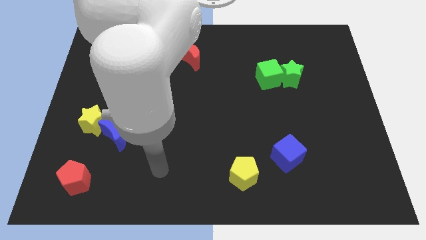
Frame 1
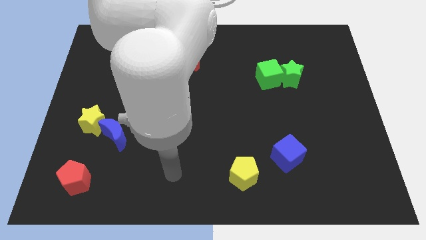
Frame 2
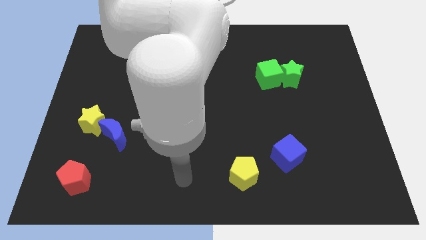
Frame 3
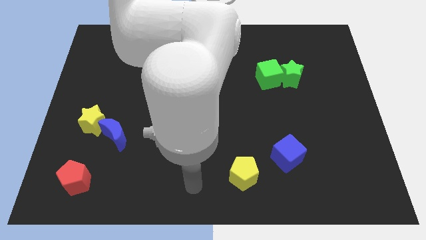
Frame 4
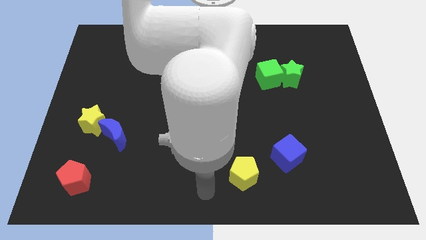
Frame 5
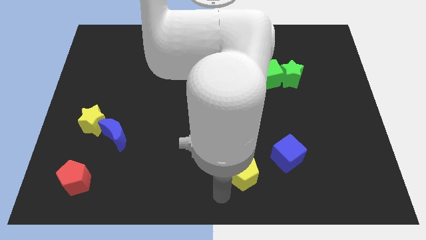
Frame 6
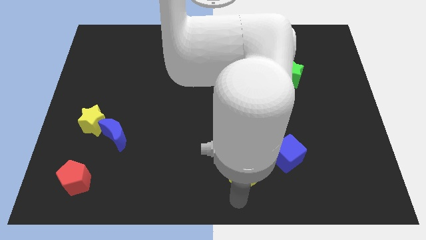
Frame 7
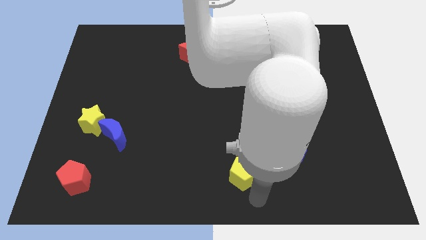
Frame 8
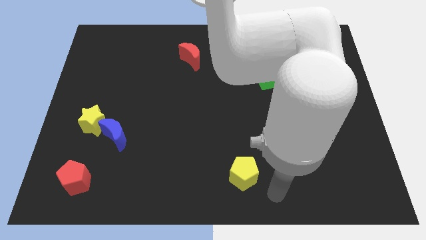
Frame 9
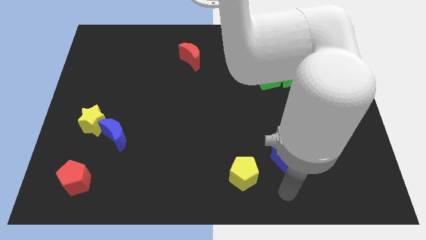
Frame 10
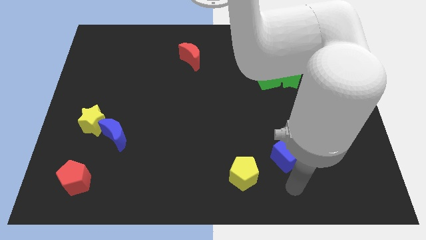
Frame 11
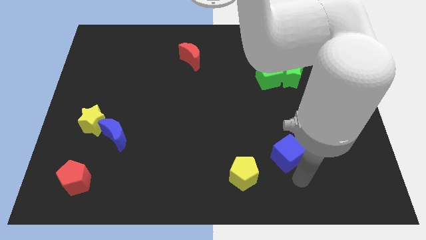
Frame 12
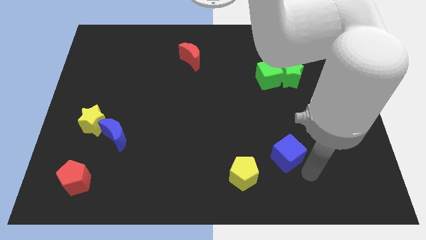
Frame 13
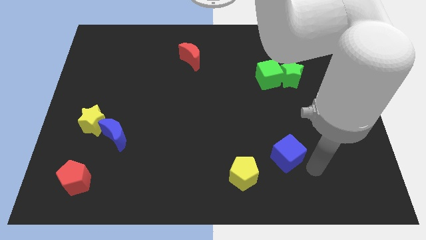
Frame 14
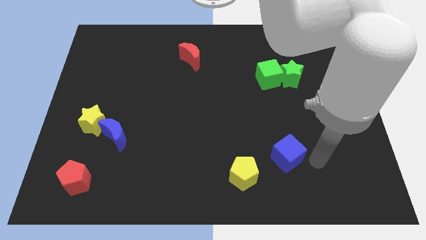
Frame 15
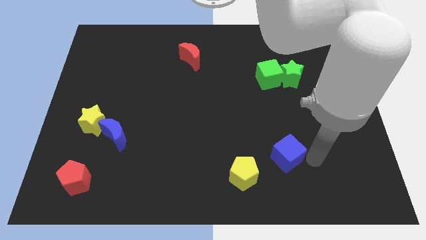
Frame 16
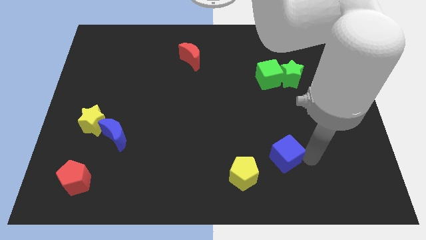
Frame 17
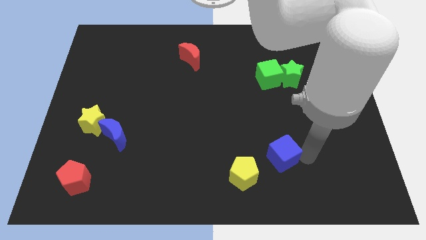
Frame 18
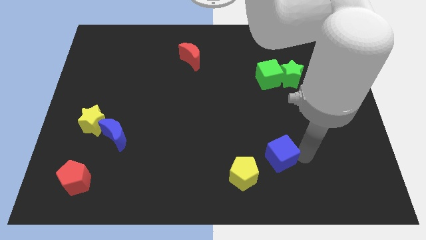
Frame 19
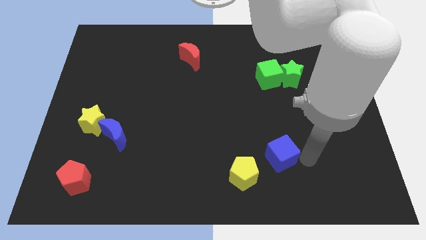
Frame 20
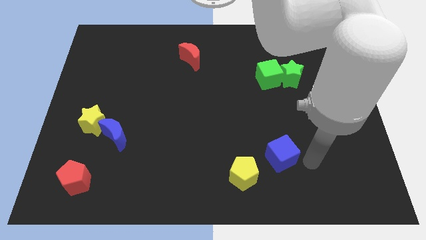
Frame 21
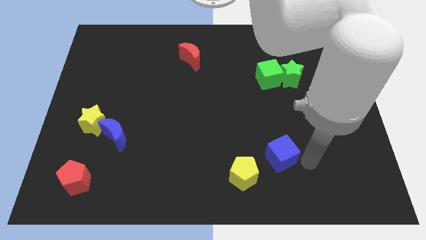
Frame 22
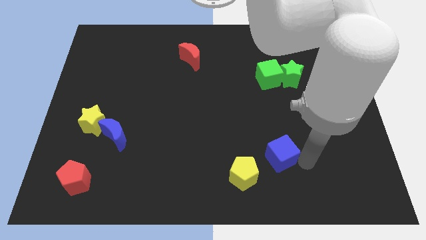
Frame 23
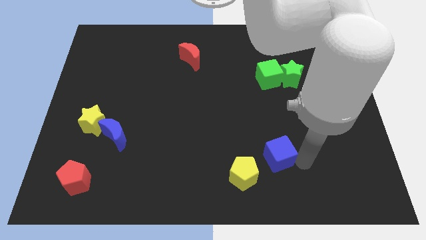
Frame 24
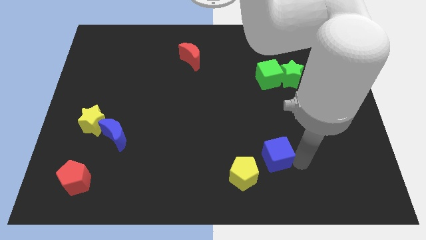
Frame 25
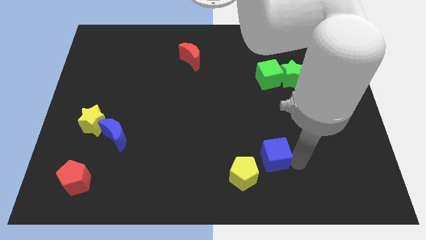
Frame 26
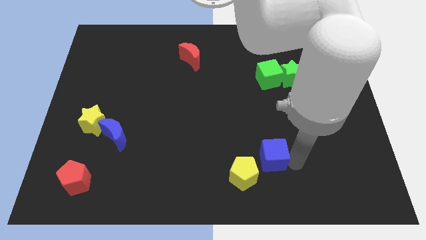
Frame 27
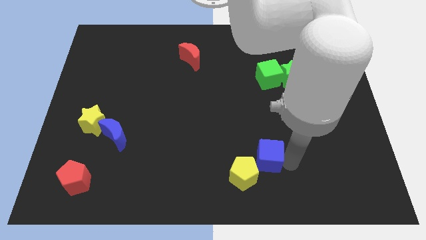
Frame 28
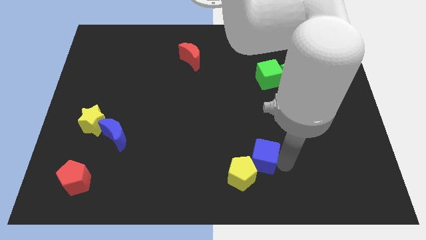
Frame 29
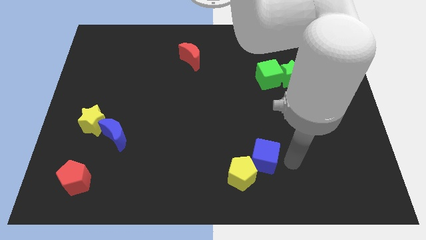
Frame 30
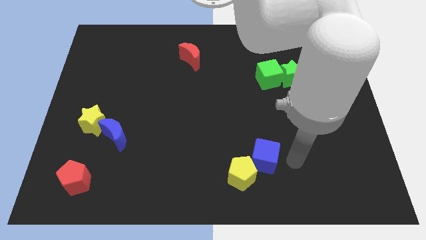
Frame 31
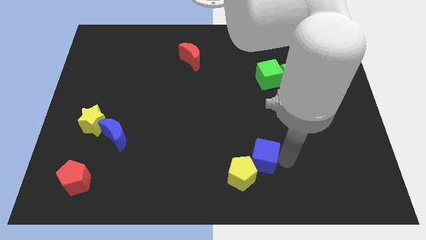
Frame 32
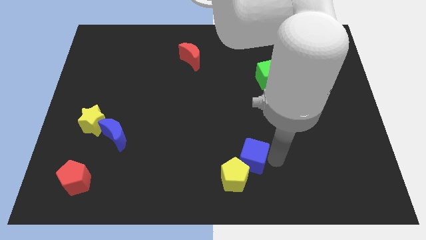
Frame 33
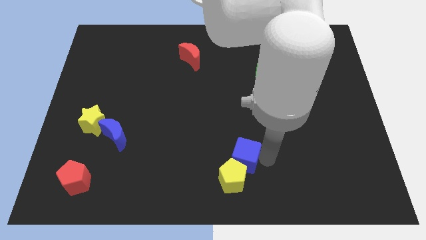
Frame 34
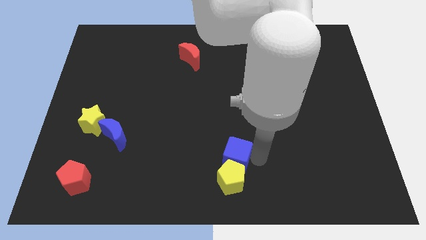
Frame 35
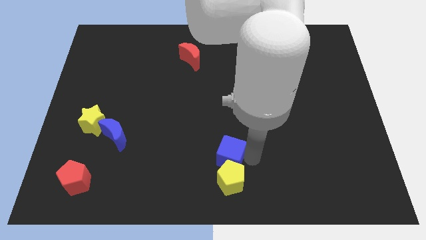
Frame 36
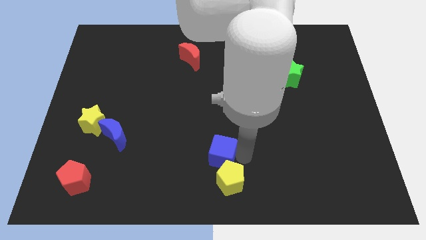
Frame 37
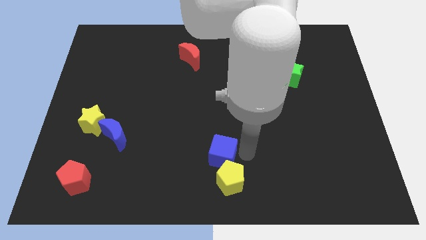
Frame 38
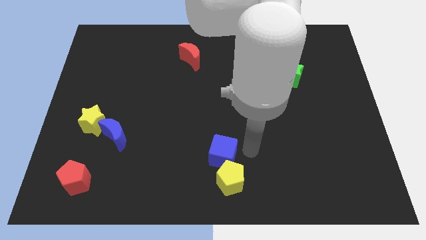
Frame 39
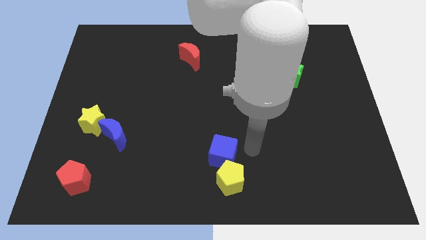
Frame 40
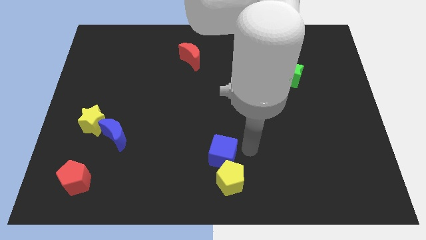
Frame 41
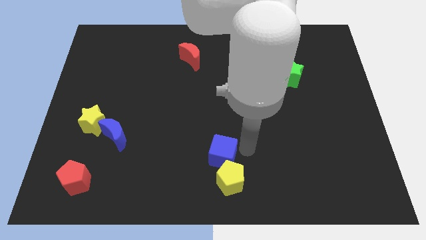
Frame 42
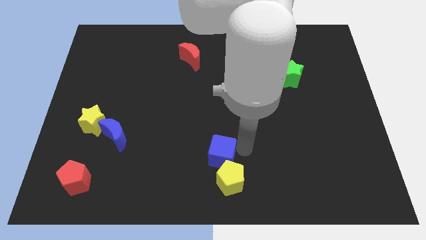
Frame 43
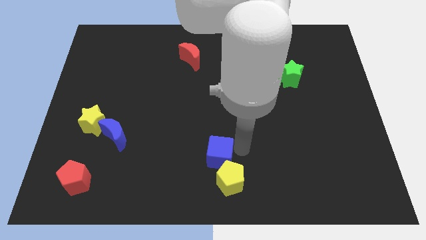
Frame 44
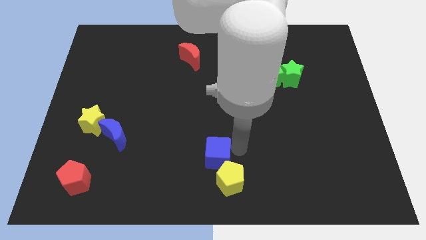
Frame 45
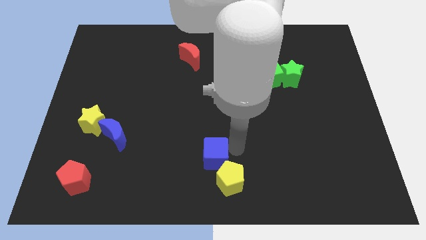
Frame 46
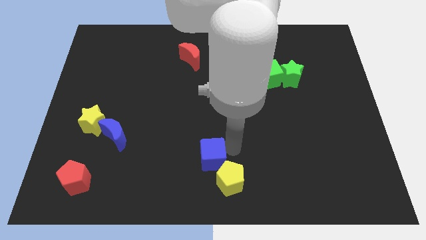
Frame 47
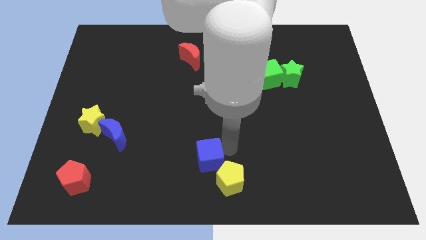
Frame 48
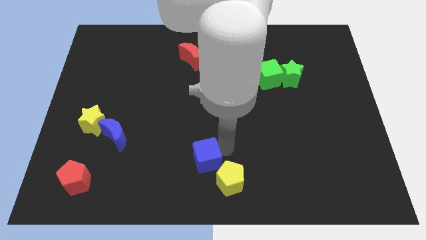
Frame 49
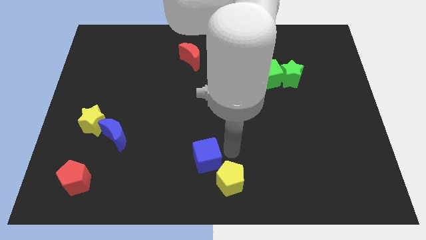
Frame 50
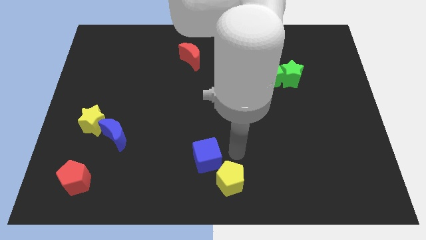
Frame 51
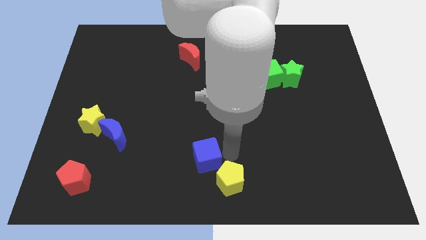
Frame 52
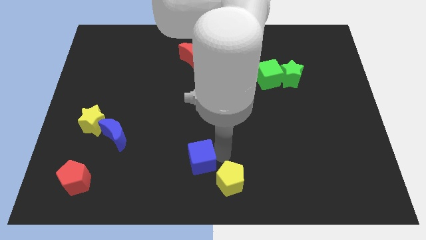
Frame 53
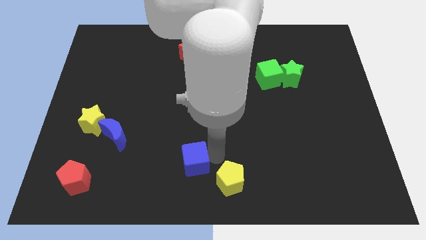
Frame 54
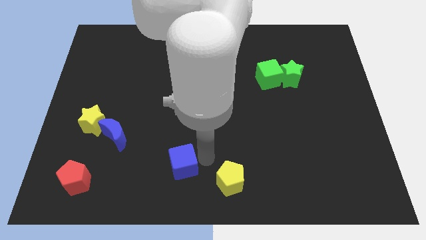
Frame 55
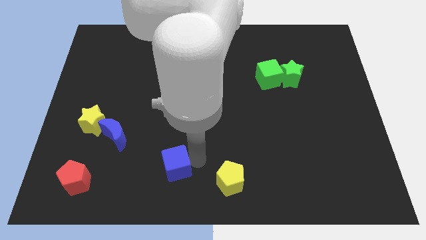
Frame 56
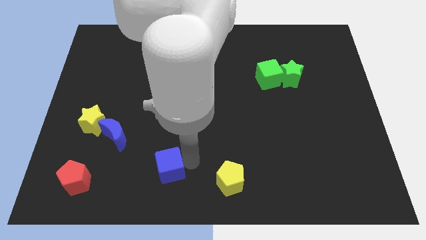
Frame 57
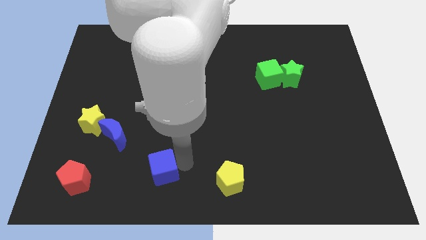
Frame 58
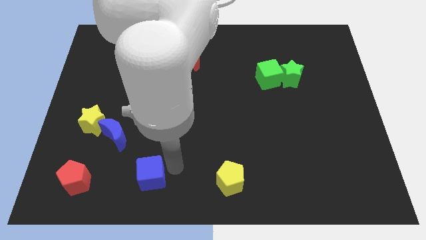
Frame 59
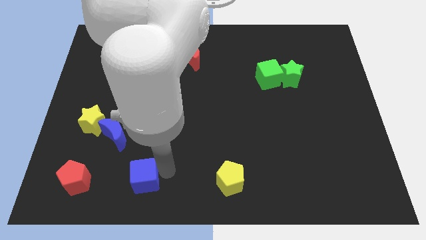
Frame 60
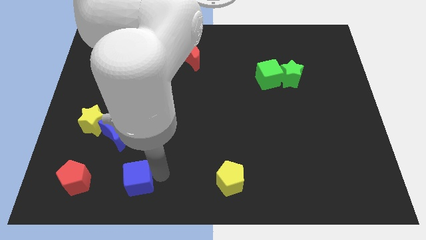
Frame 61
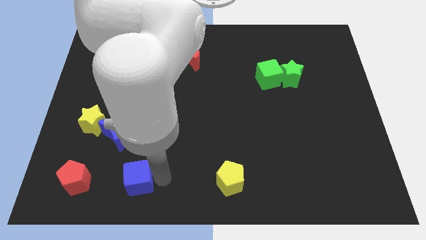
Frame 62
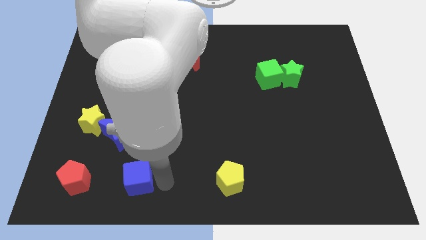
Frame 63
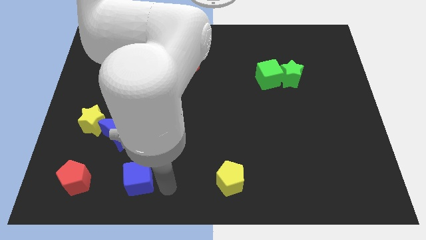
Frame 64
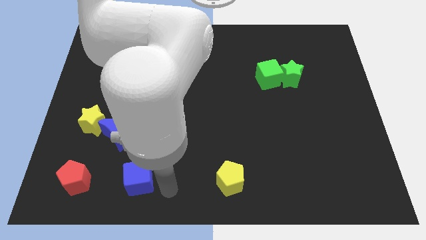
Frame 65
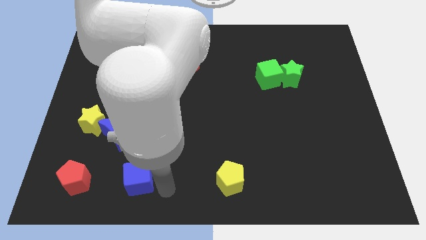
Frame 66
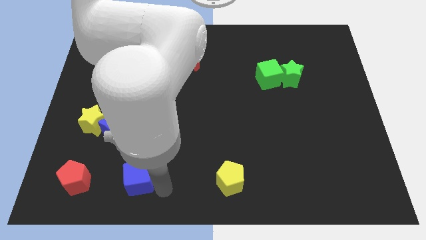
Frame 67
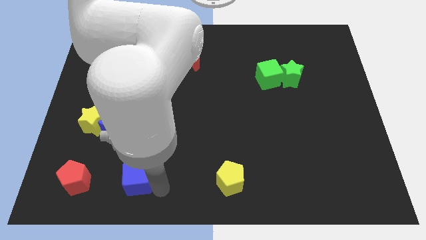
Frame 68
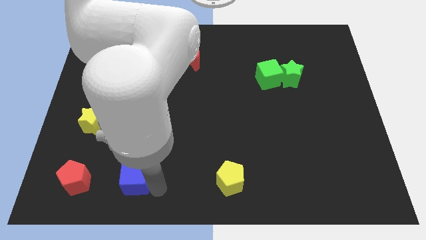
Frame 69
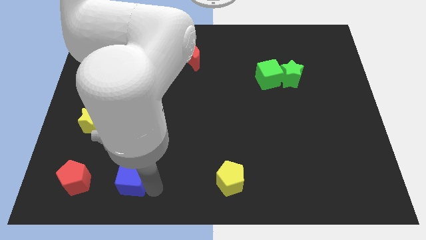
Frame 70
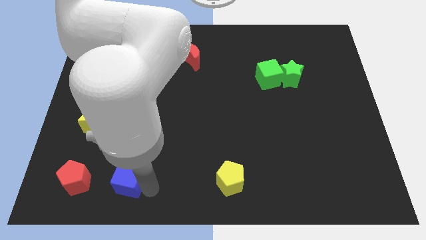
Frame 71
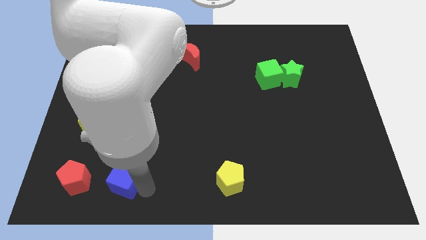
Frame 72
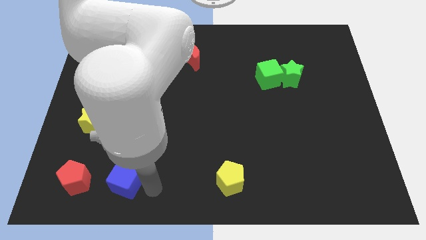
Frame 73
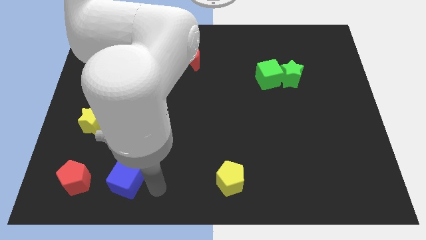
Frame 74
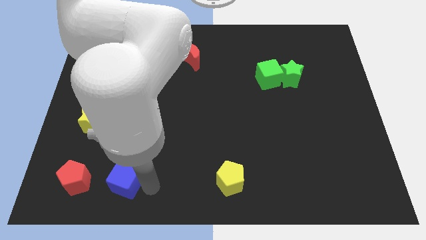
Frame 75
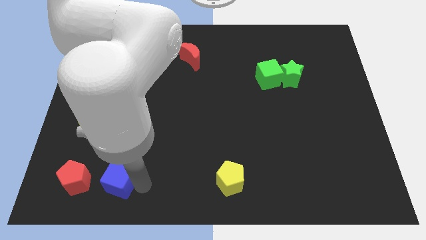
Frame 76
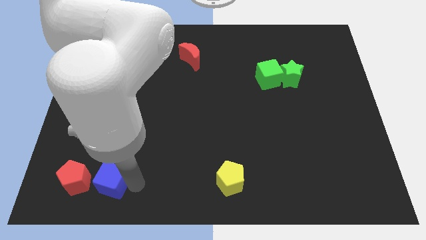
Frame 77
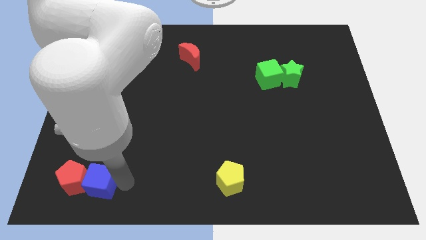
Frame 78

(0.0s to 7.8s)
put the blue cube to the red pentagon
